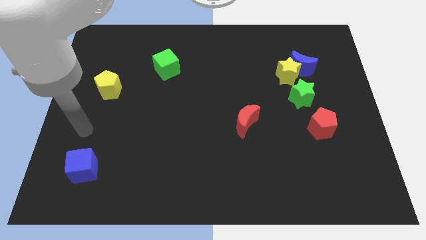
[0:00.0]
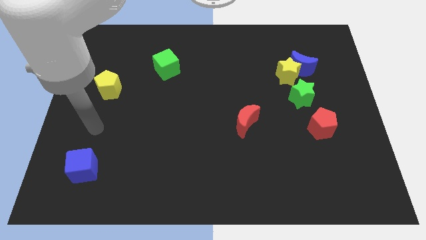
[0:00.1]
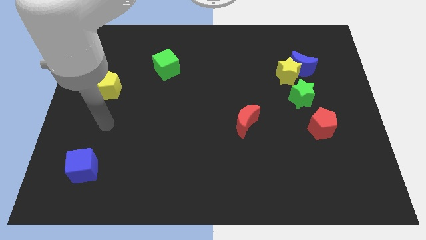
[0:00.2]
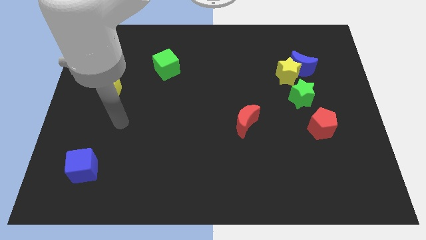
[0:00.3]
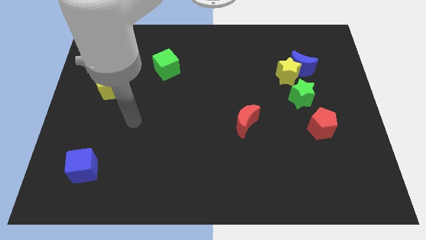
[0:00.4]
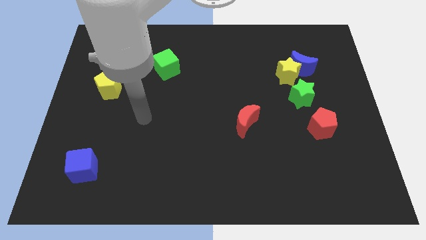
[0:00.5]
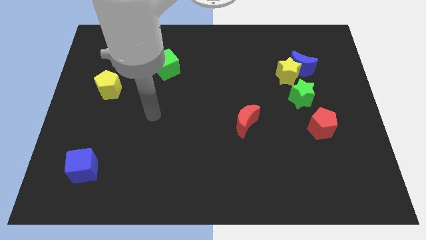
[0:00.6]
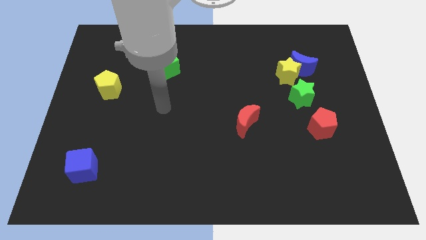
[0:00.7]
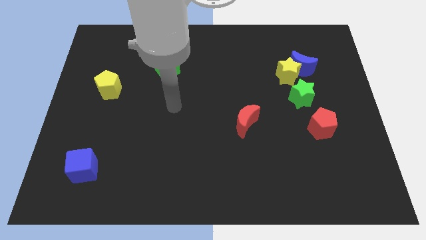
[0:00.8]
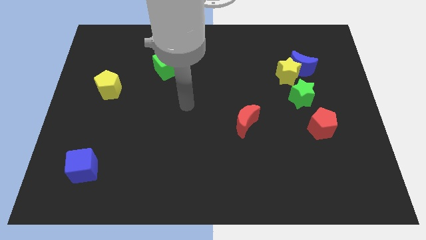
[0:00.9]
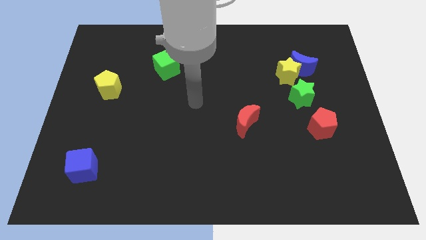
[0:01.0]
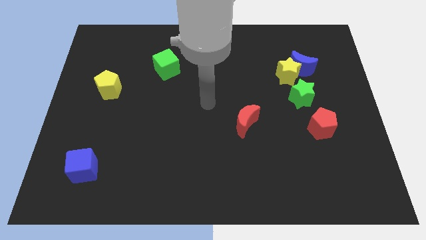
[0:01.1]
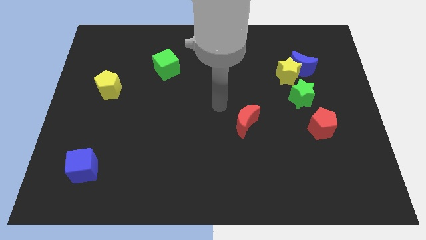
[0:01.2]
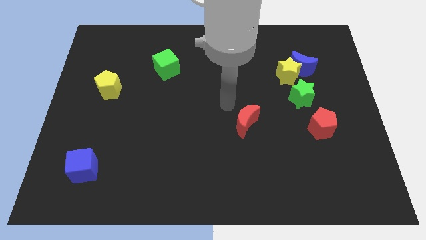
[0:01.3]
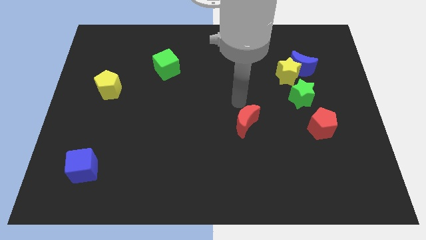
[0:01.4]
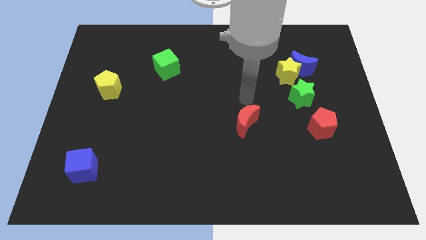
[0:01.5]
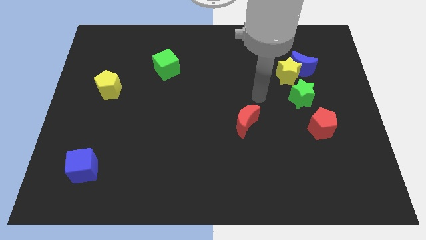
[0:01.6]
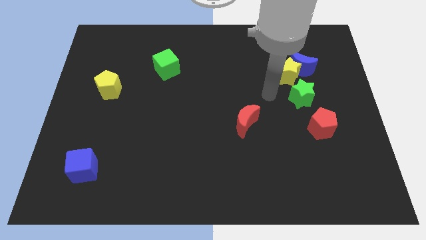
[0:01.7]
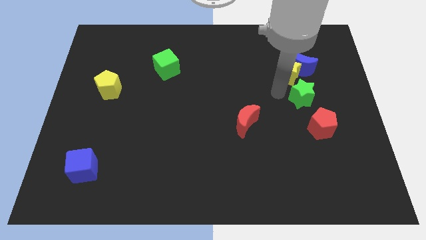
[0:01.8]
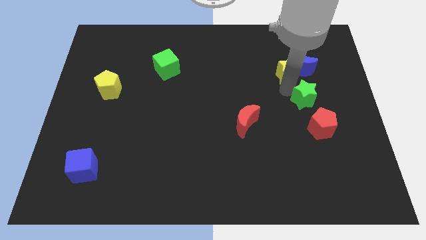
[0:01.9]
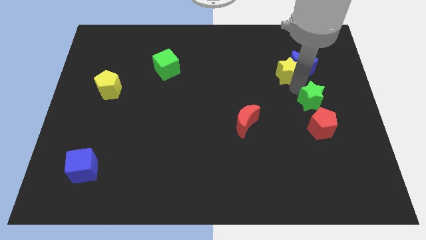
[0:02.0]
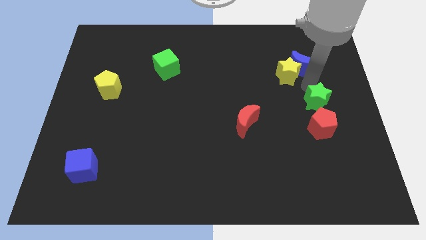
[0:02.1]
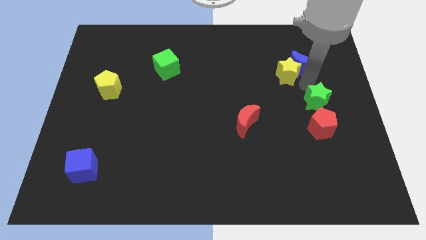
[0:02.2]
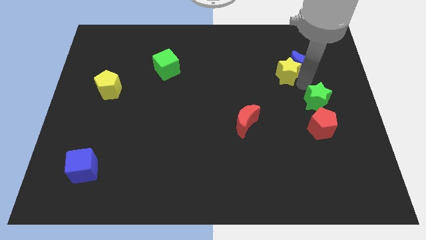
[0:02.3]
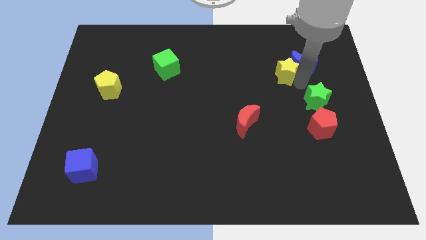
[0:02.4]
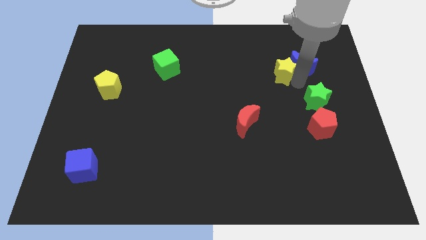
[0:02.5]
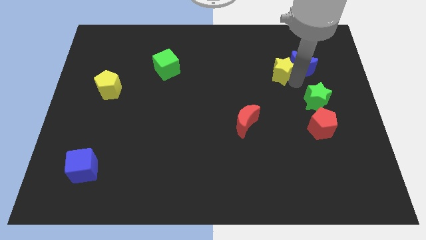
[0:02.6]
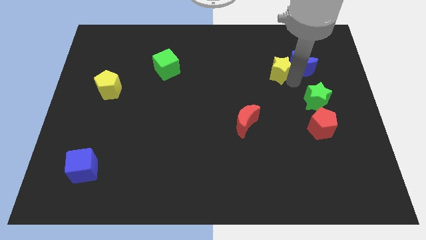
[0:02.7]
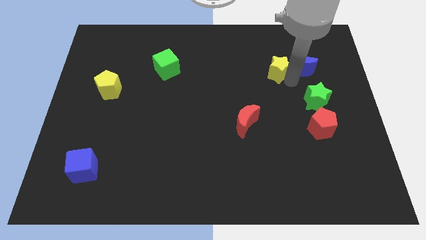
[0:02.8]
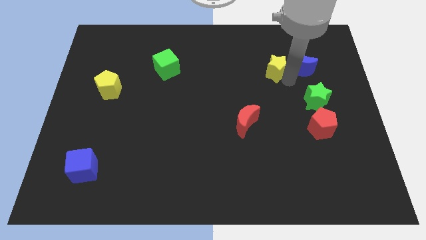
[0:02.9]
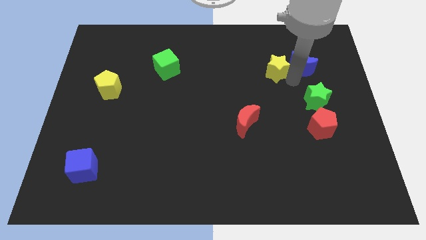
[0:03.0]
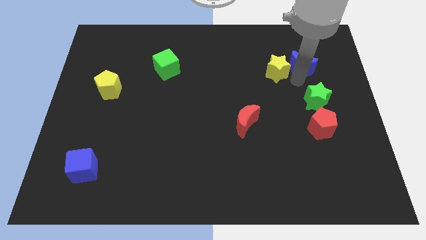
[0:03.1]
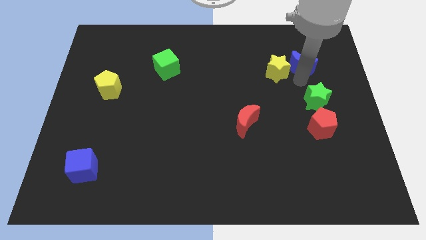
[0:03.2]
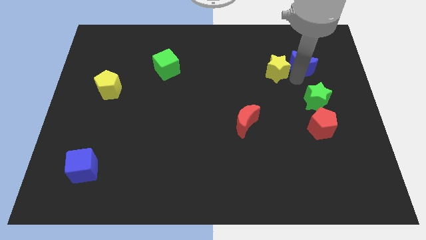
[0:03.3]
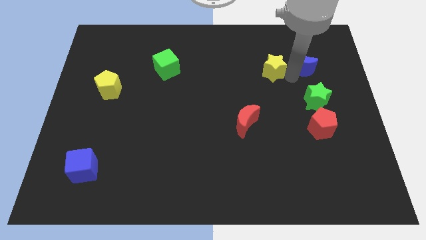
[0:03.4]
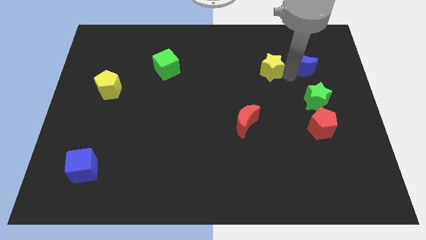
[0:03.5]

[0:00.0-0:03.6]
move the yellow star away from the blue moon and green star

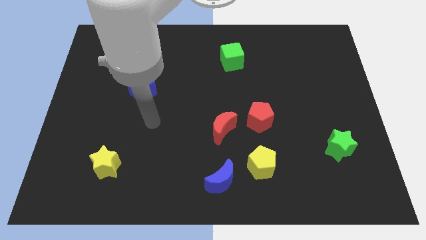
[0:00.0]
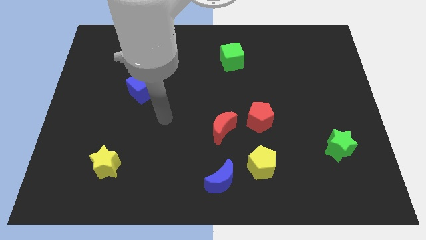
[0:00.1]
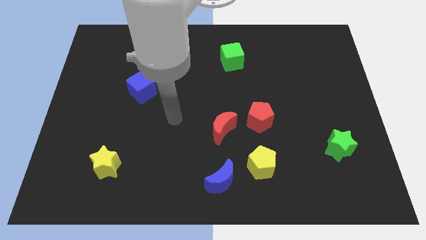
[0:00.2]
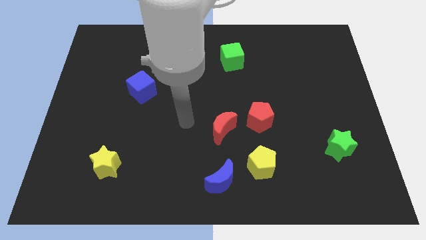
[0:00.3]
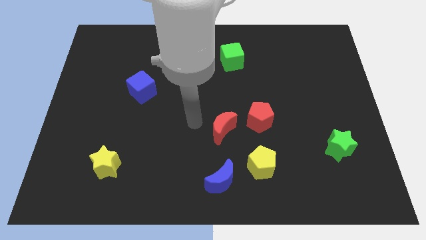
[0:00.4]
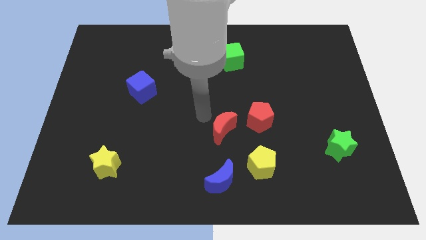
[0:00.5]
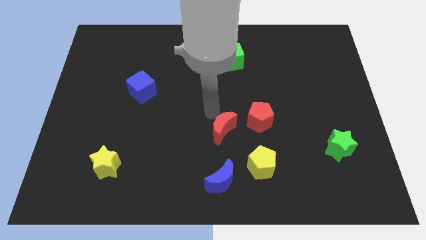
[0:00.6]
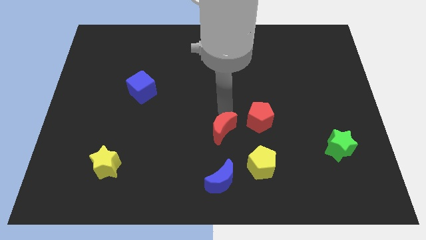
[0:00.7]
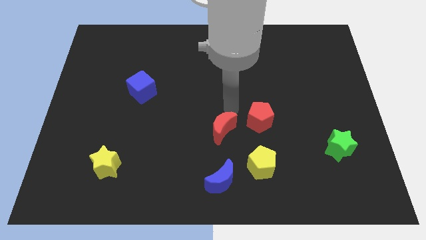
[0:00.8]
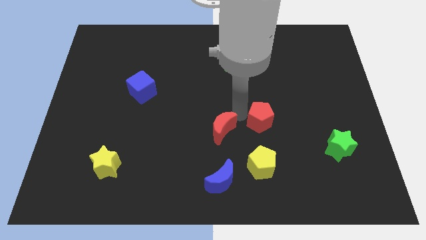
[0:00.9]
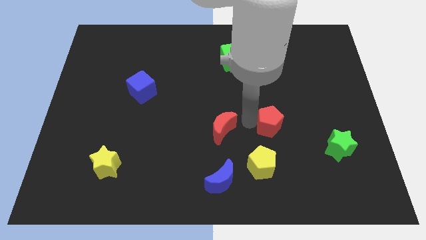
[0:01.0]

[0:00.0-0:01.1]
pull the red moon apart from the red pentagon

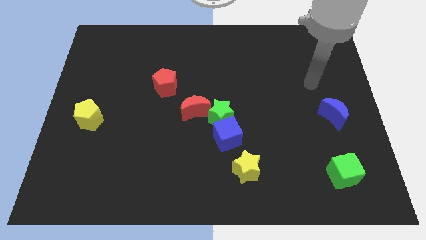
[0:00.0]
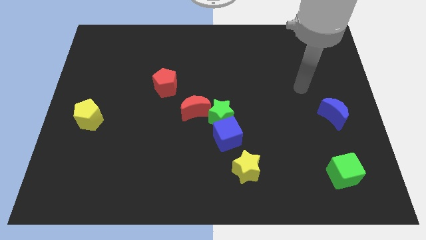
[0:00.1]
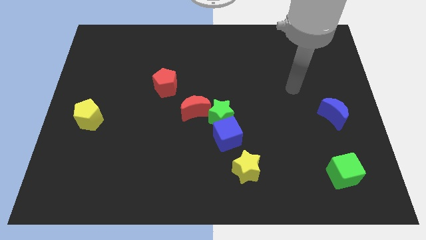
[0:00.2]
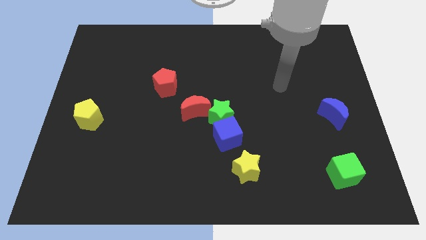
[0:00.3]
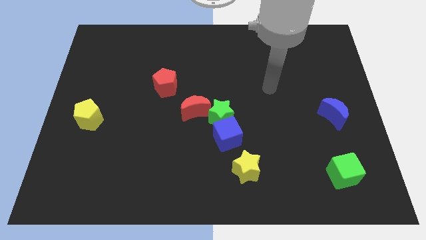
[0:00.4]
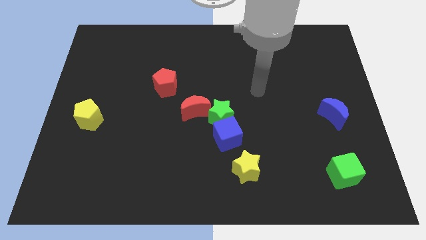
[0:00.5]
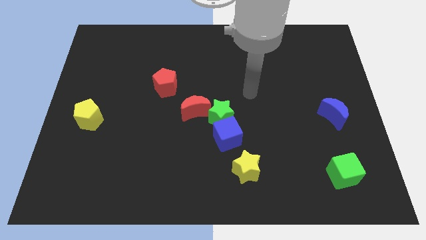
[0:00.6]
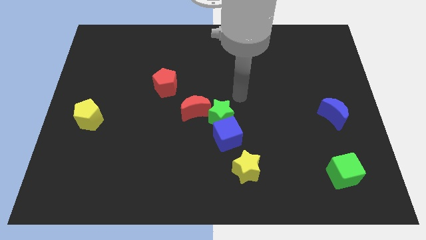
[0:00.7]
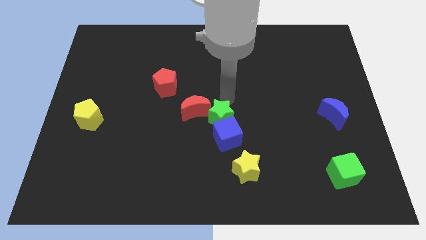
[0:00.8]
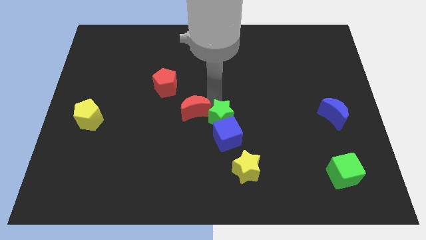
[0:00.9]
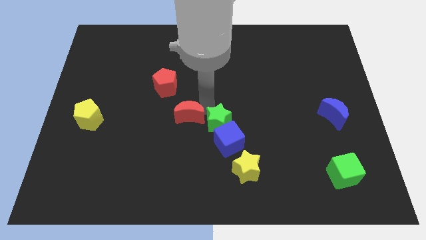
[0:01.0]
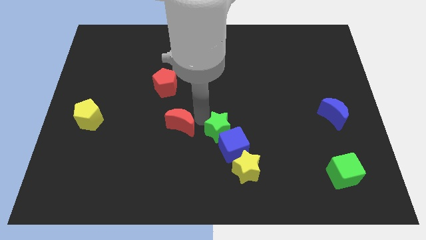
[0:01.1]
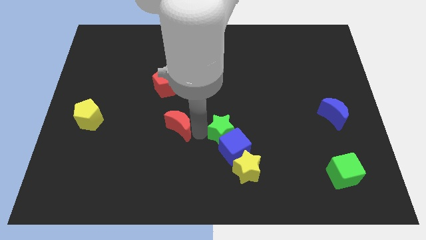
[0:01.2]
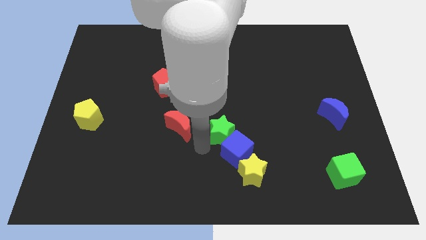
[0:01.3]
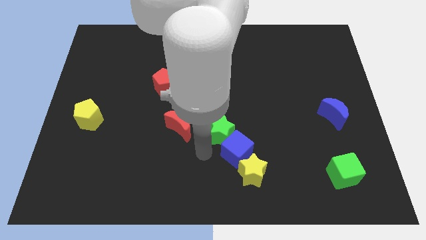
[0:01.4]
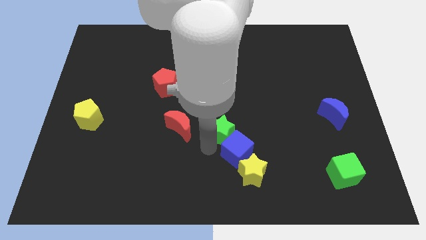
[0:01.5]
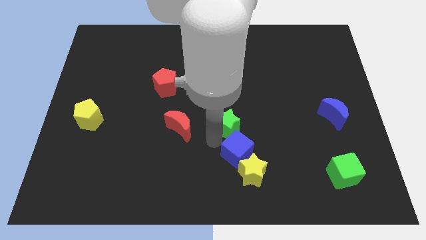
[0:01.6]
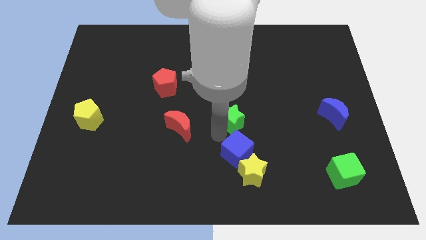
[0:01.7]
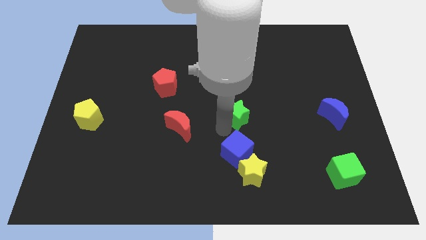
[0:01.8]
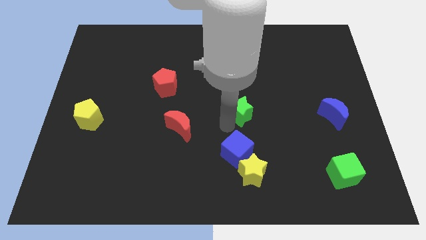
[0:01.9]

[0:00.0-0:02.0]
separate the green star from the blue cube and red moon

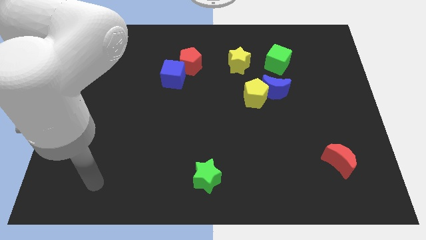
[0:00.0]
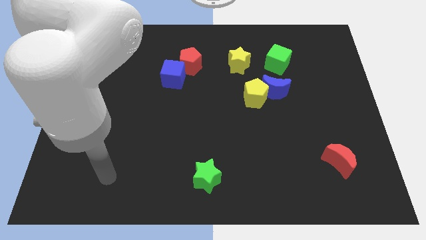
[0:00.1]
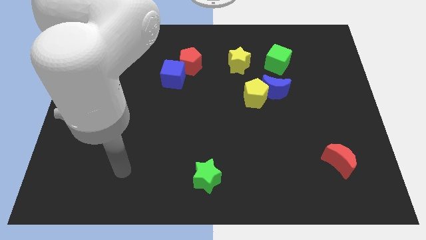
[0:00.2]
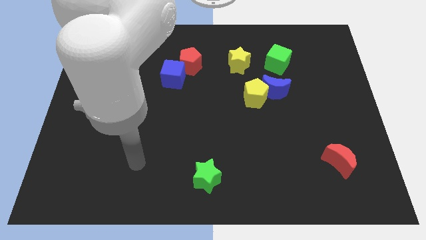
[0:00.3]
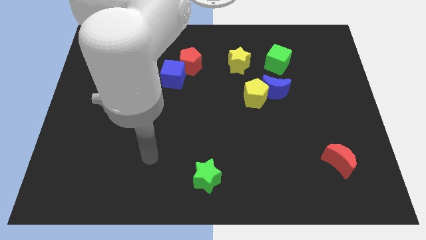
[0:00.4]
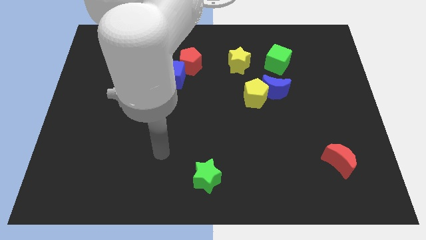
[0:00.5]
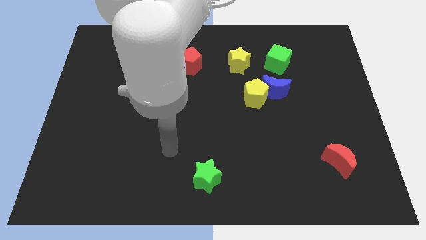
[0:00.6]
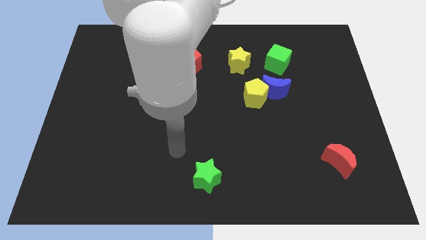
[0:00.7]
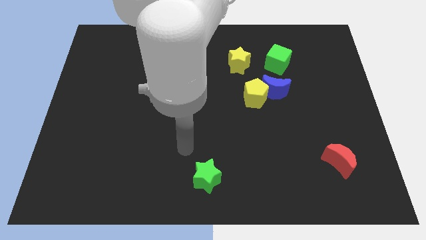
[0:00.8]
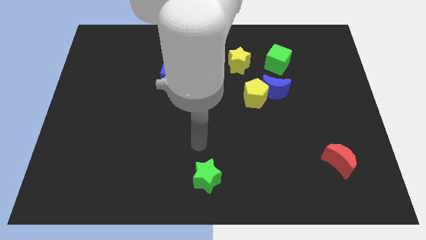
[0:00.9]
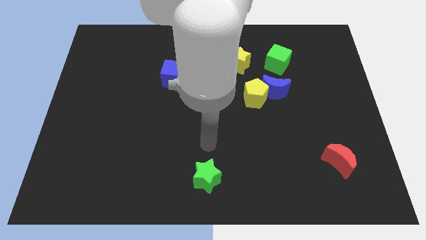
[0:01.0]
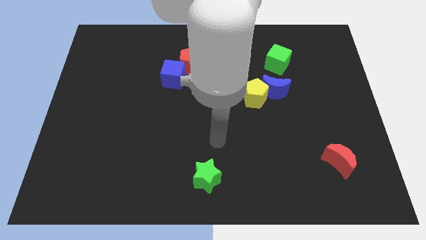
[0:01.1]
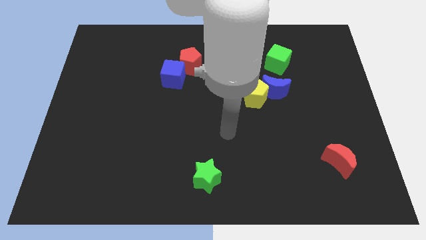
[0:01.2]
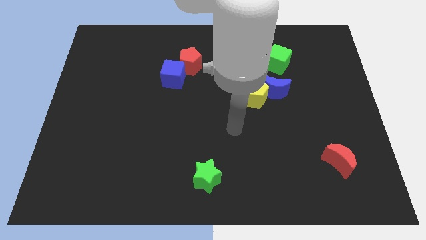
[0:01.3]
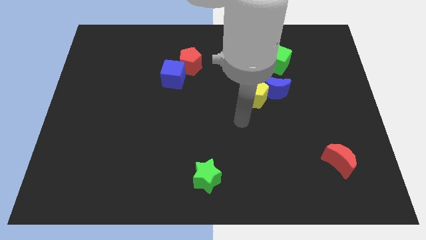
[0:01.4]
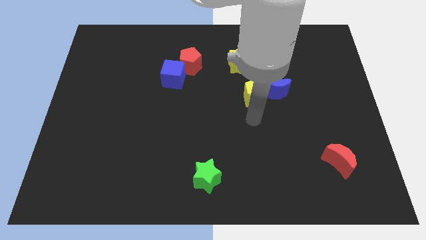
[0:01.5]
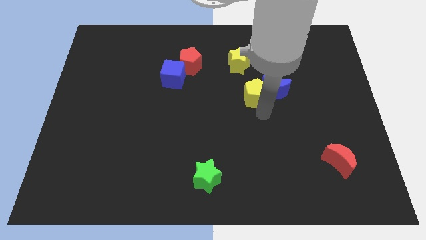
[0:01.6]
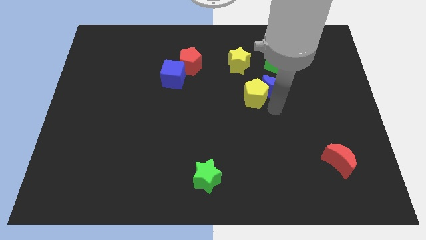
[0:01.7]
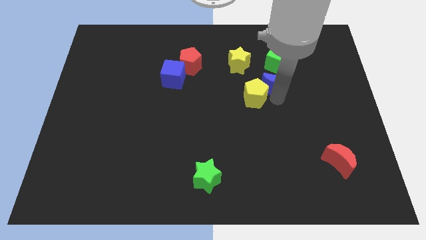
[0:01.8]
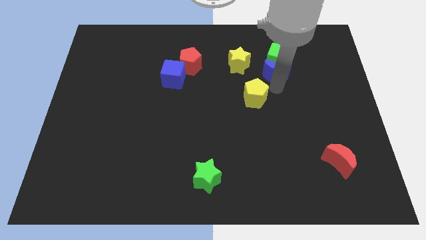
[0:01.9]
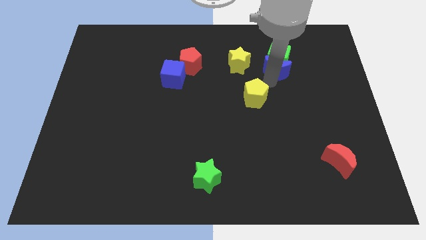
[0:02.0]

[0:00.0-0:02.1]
move the yellow pentagon away from the blue moon

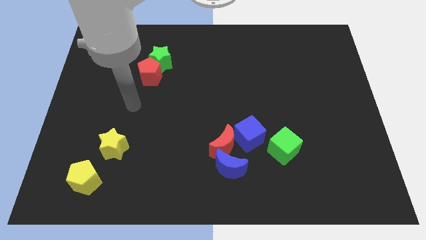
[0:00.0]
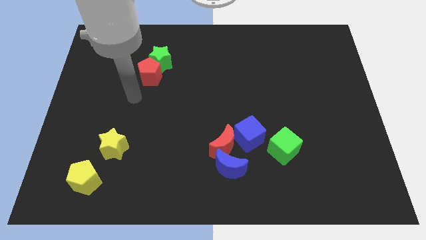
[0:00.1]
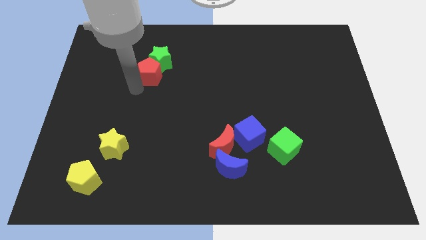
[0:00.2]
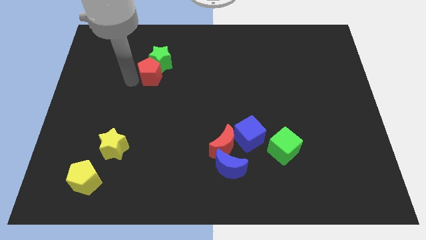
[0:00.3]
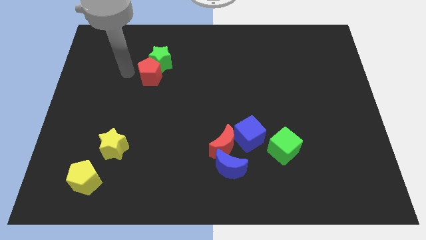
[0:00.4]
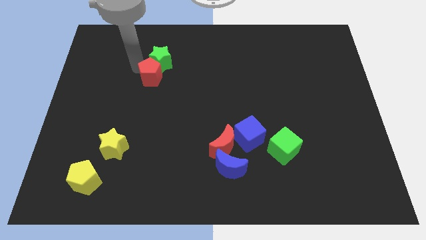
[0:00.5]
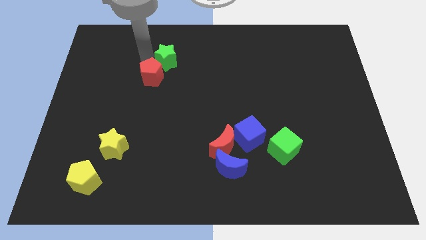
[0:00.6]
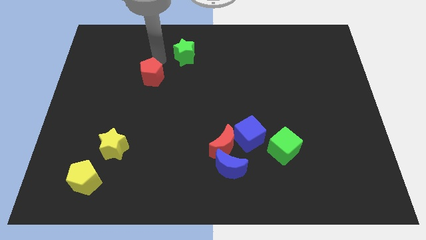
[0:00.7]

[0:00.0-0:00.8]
separate the red pentagon from the green star
